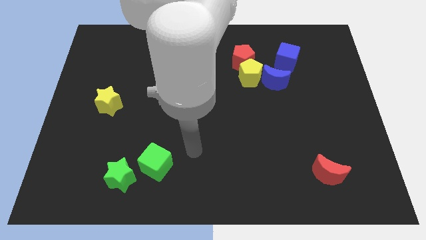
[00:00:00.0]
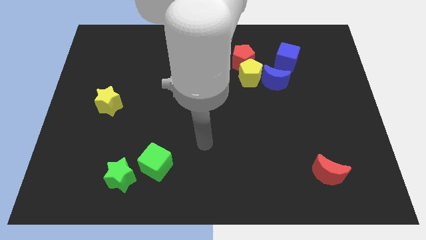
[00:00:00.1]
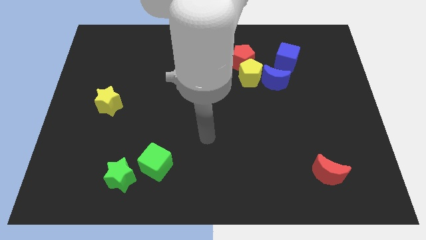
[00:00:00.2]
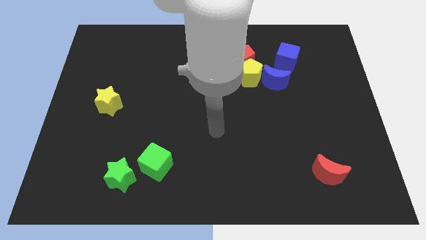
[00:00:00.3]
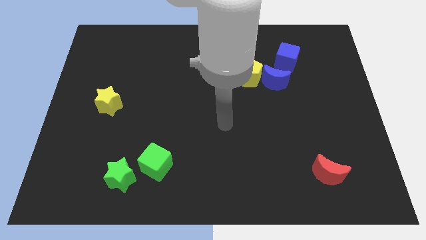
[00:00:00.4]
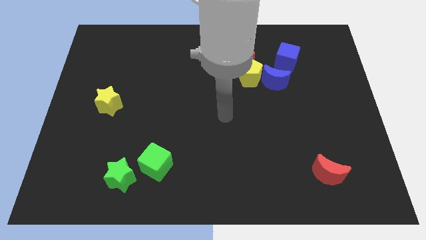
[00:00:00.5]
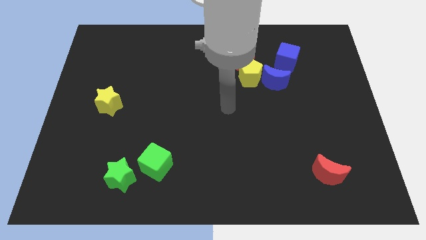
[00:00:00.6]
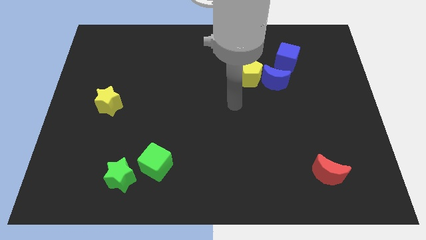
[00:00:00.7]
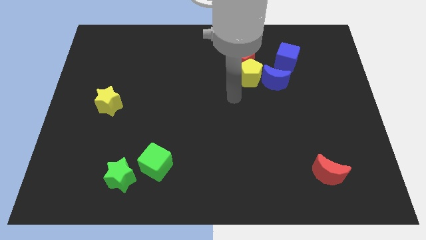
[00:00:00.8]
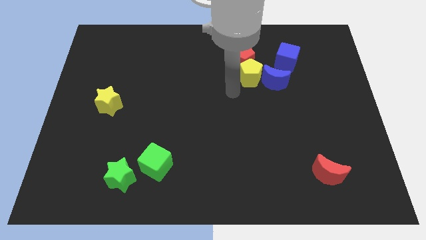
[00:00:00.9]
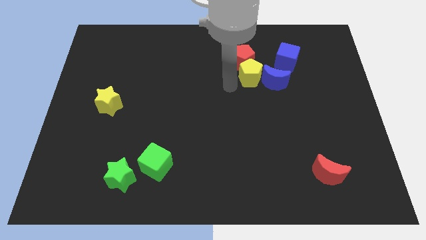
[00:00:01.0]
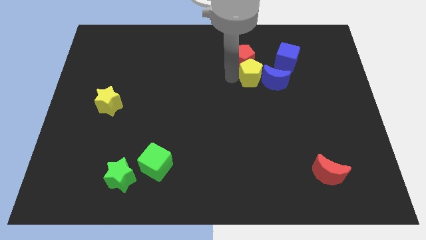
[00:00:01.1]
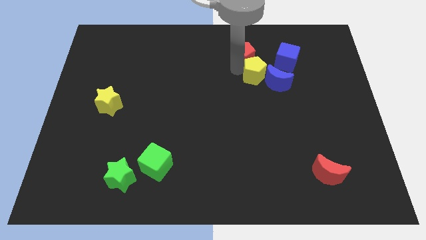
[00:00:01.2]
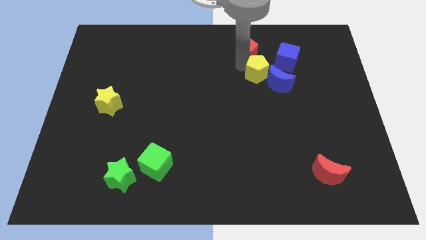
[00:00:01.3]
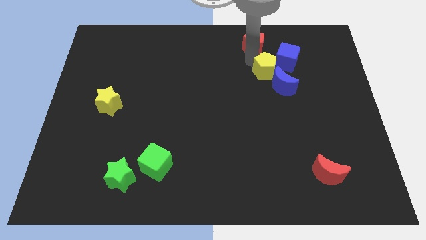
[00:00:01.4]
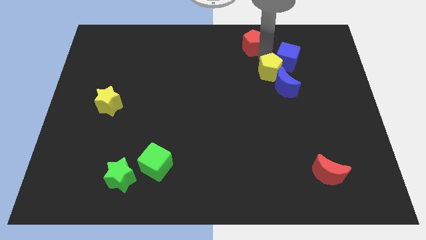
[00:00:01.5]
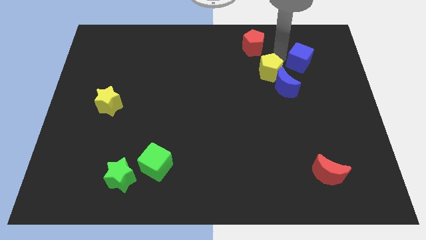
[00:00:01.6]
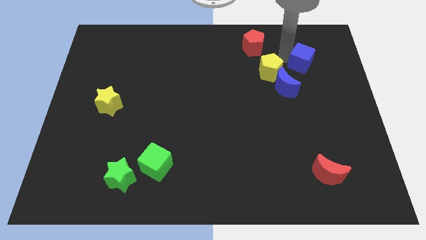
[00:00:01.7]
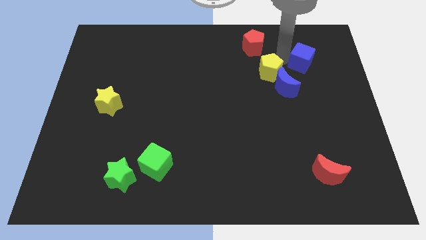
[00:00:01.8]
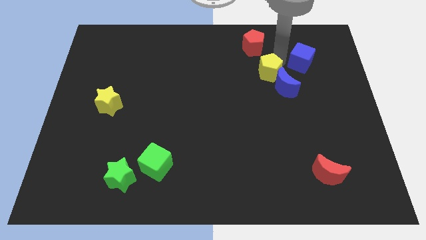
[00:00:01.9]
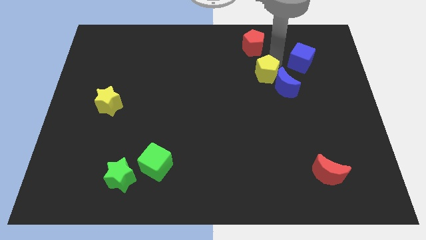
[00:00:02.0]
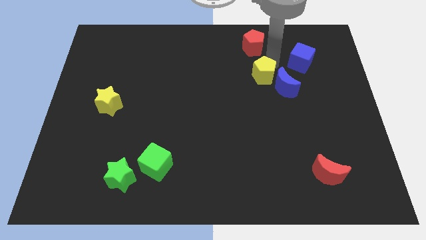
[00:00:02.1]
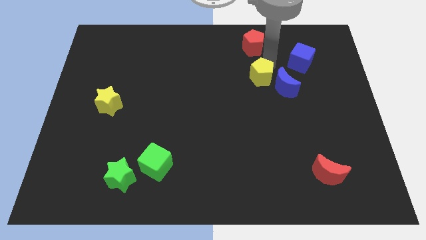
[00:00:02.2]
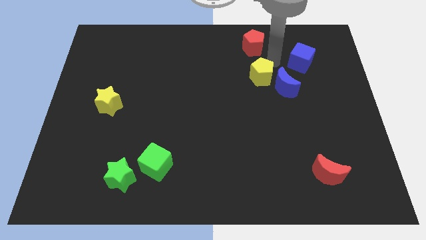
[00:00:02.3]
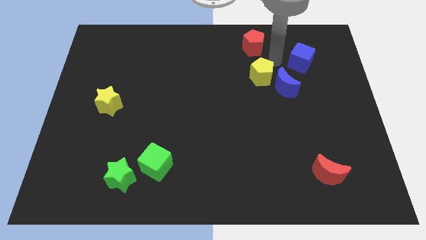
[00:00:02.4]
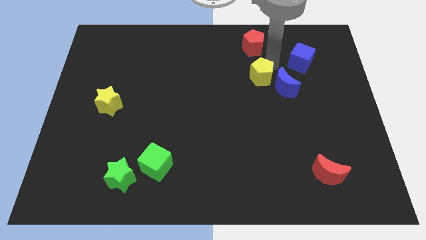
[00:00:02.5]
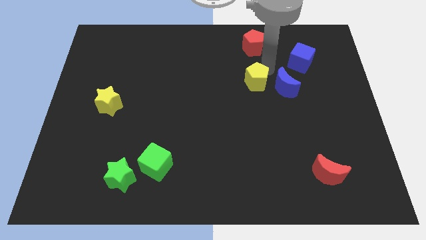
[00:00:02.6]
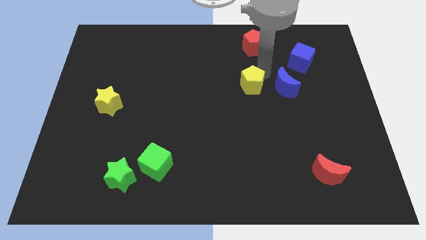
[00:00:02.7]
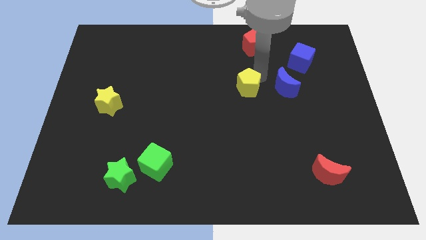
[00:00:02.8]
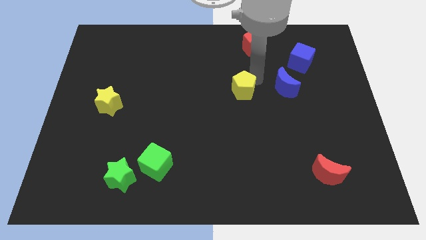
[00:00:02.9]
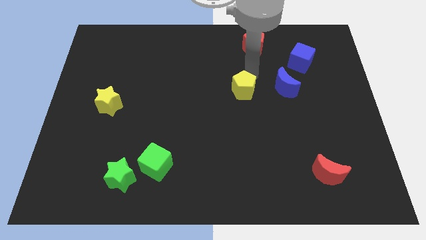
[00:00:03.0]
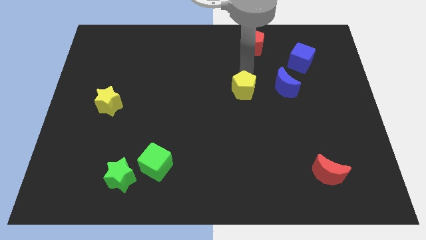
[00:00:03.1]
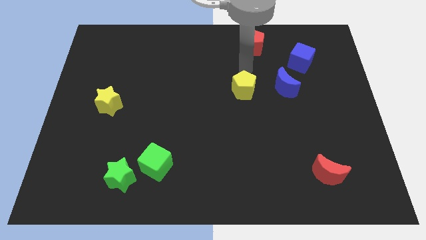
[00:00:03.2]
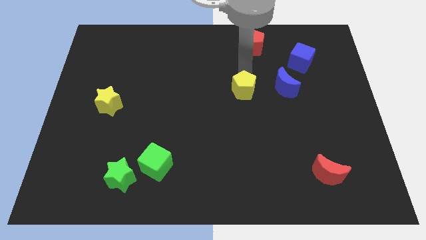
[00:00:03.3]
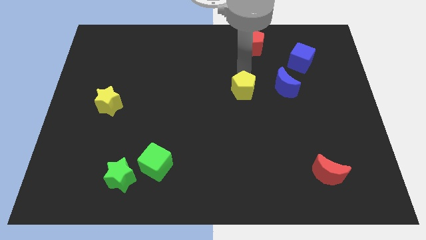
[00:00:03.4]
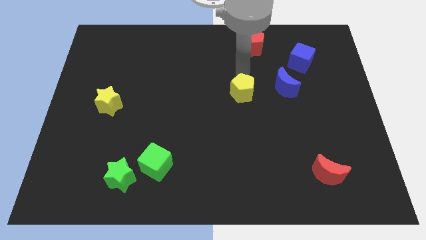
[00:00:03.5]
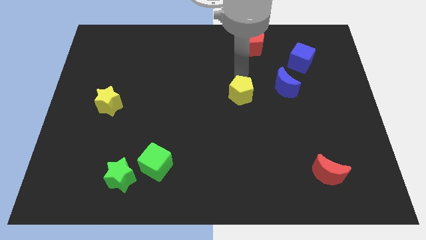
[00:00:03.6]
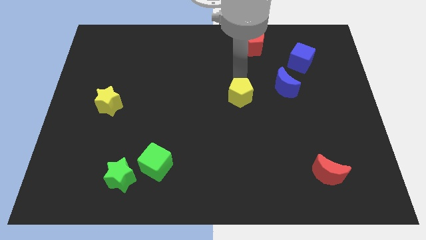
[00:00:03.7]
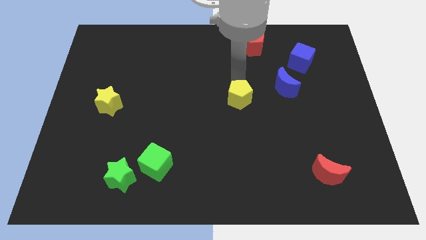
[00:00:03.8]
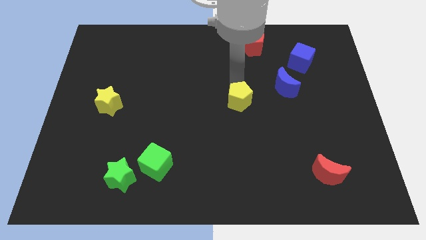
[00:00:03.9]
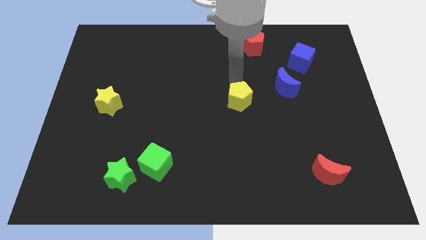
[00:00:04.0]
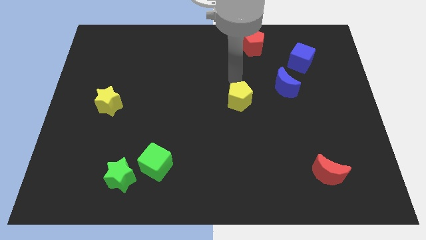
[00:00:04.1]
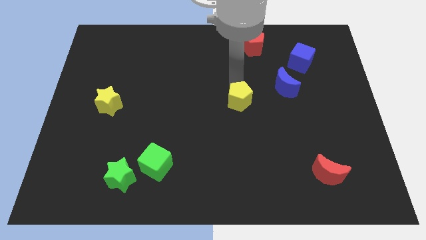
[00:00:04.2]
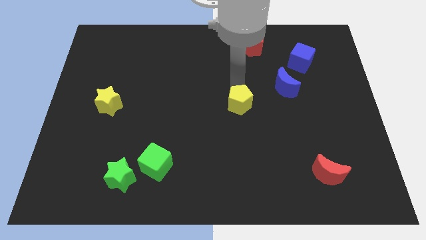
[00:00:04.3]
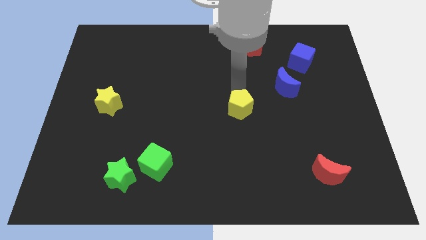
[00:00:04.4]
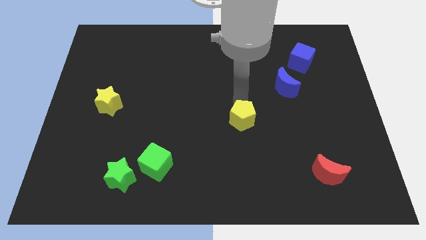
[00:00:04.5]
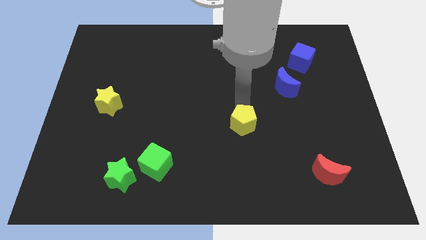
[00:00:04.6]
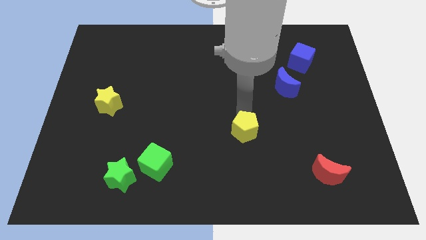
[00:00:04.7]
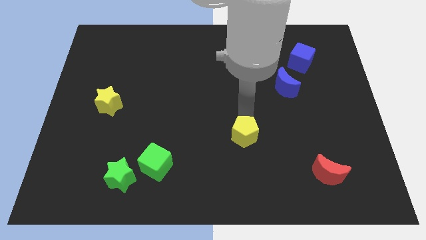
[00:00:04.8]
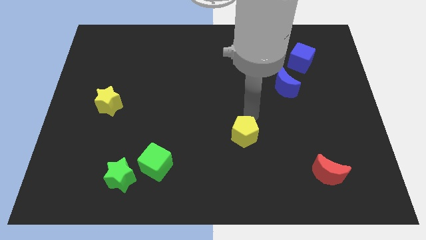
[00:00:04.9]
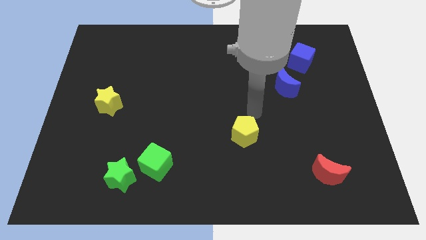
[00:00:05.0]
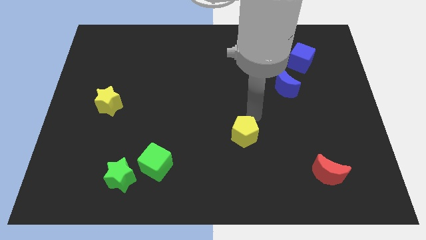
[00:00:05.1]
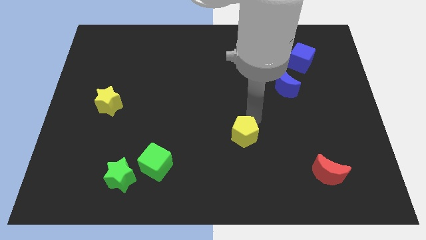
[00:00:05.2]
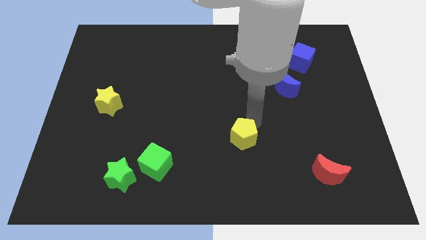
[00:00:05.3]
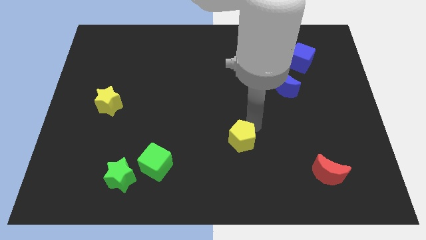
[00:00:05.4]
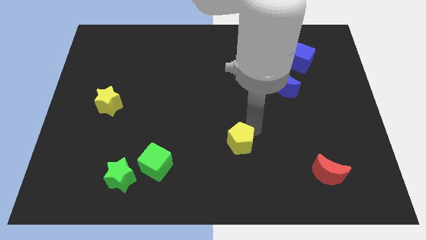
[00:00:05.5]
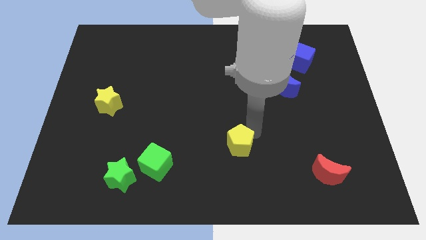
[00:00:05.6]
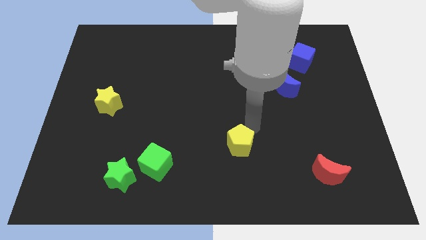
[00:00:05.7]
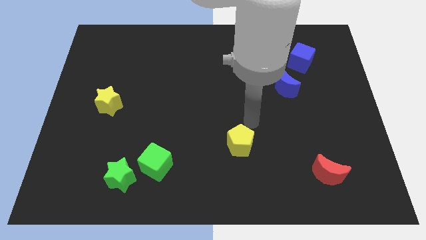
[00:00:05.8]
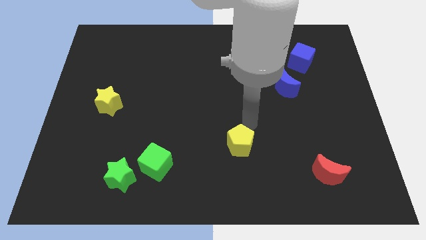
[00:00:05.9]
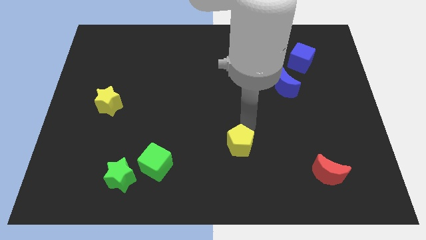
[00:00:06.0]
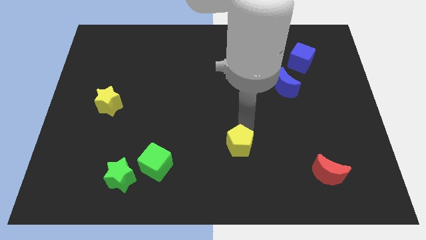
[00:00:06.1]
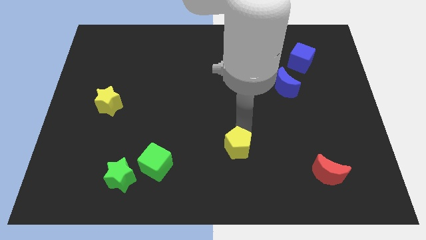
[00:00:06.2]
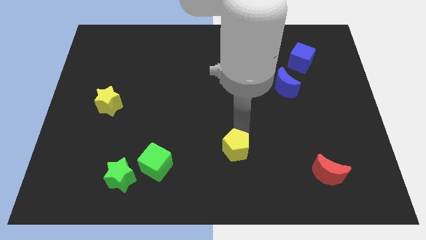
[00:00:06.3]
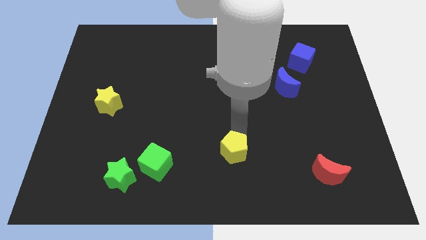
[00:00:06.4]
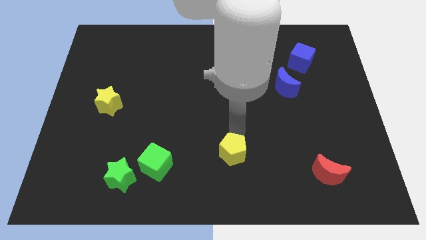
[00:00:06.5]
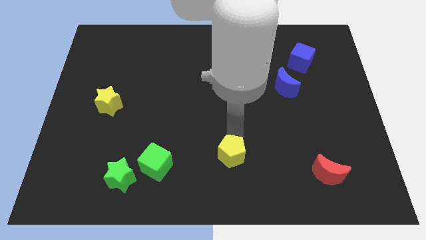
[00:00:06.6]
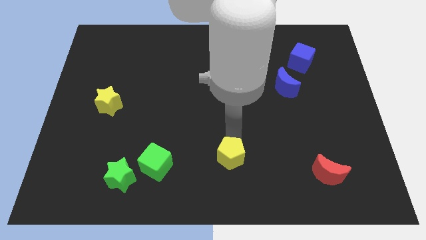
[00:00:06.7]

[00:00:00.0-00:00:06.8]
move the yellow pentagon to the bottom side

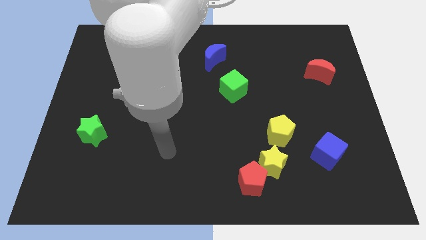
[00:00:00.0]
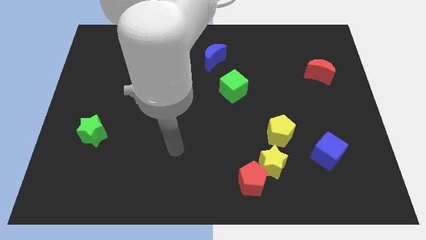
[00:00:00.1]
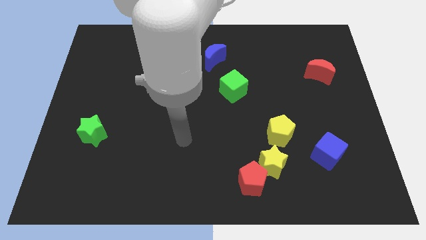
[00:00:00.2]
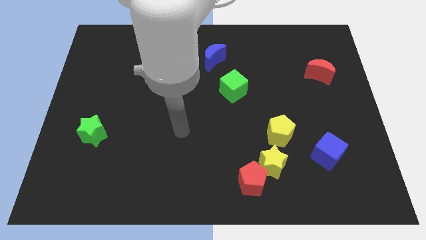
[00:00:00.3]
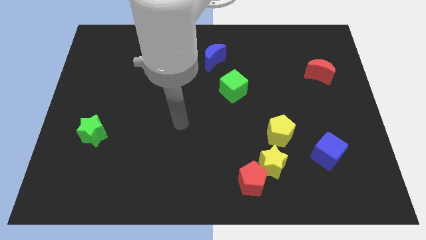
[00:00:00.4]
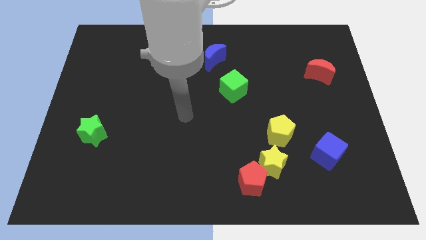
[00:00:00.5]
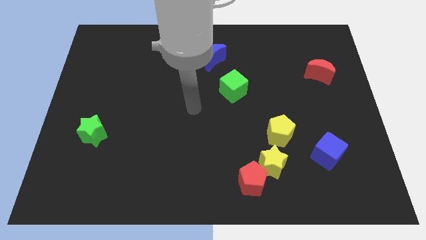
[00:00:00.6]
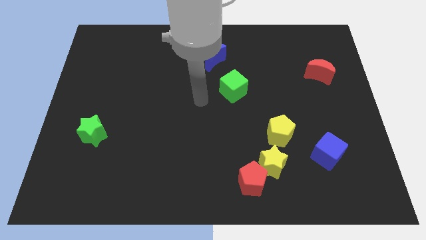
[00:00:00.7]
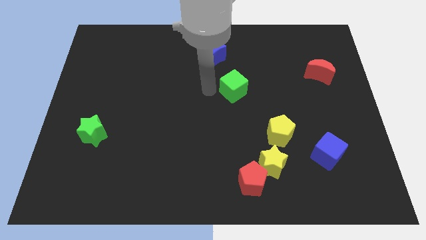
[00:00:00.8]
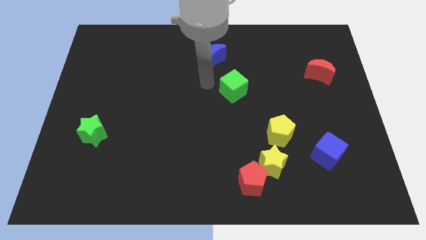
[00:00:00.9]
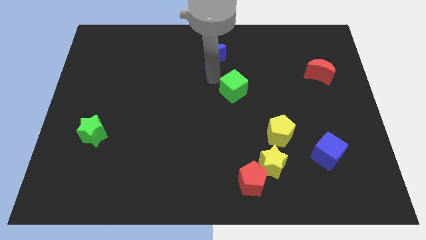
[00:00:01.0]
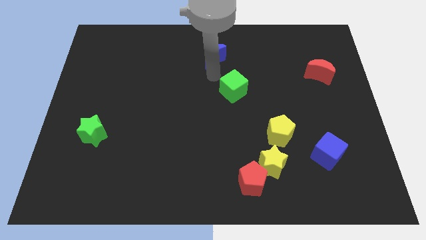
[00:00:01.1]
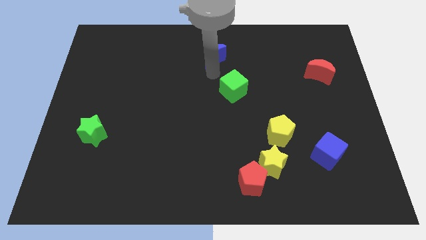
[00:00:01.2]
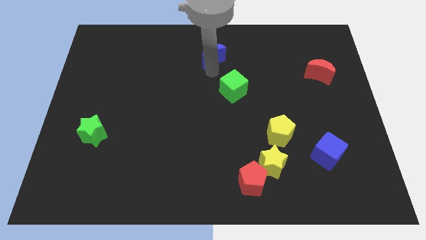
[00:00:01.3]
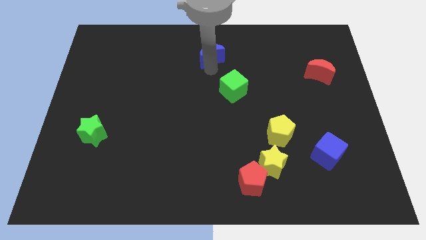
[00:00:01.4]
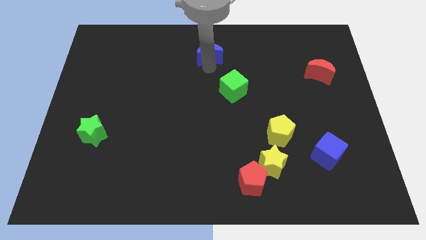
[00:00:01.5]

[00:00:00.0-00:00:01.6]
put the blue moon to the towards your base
